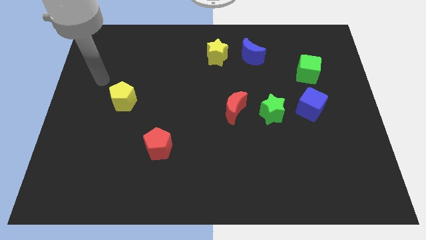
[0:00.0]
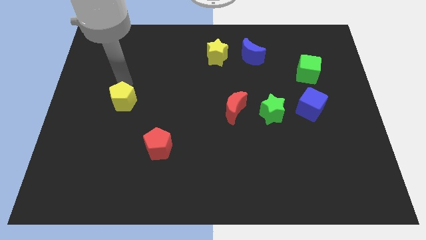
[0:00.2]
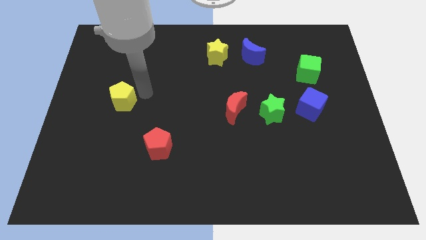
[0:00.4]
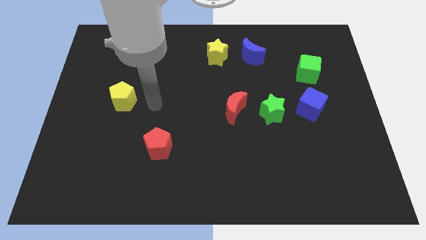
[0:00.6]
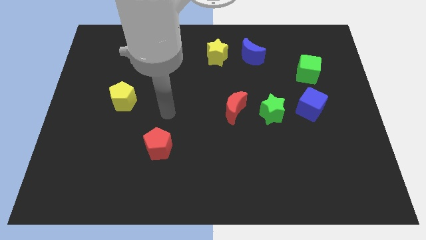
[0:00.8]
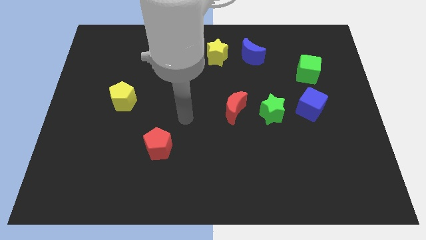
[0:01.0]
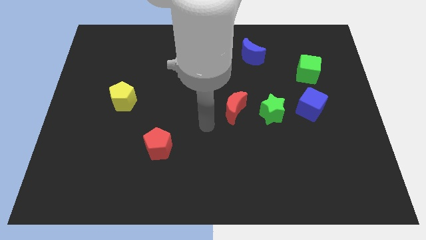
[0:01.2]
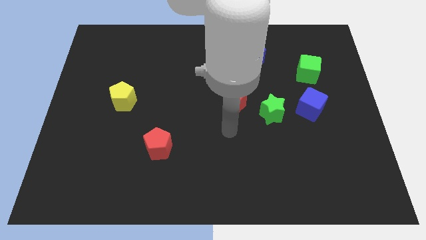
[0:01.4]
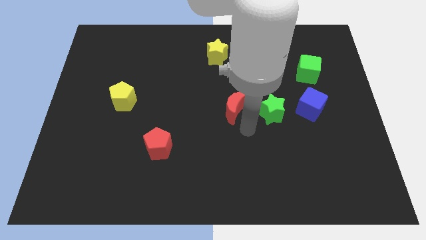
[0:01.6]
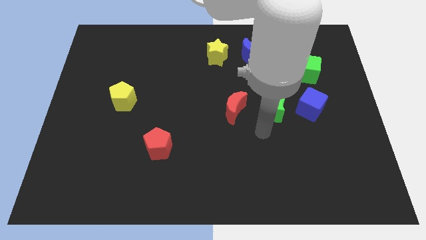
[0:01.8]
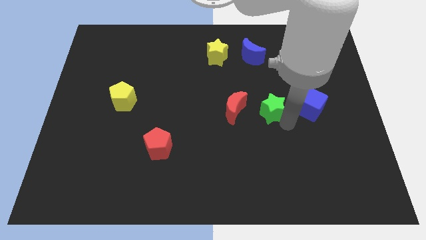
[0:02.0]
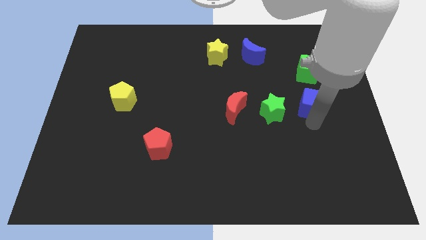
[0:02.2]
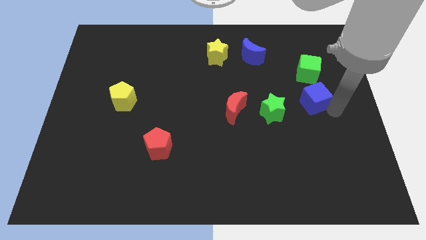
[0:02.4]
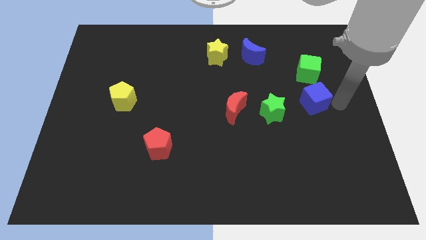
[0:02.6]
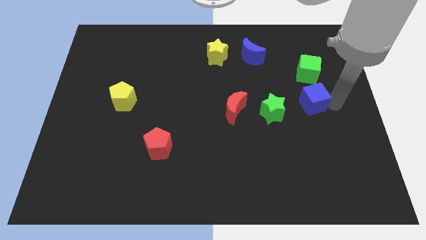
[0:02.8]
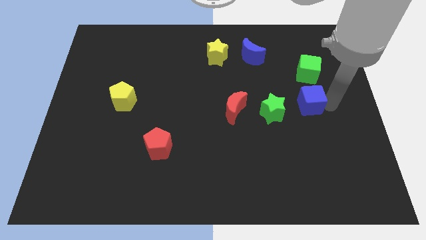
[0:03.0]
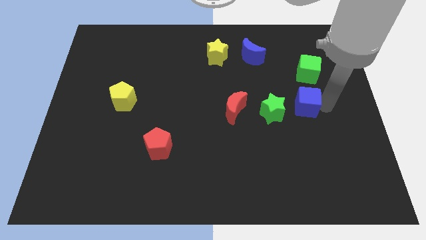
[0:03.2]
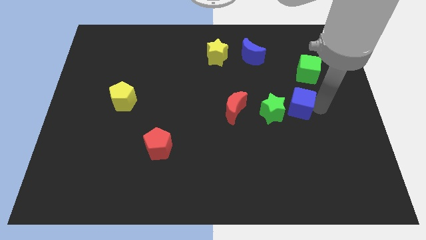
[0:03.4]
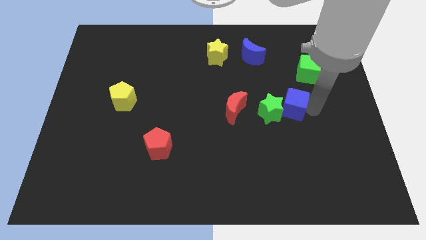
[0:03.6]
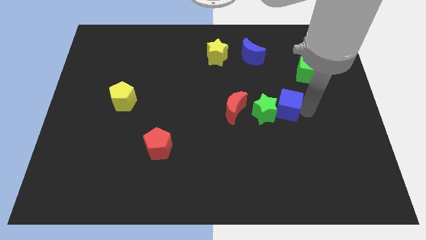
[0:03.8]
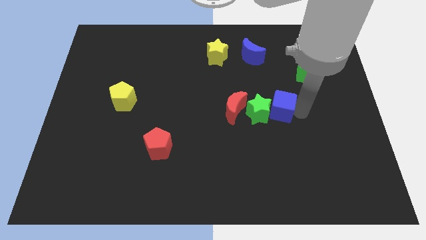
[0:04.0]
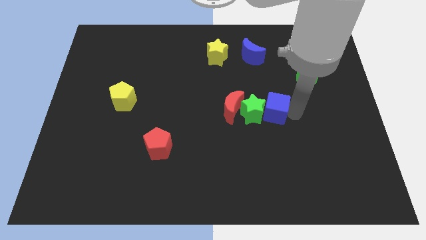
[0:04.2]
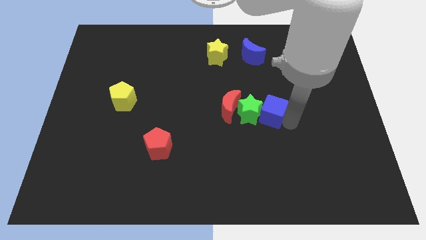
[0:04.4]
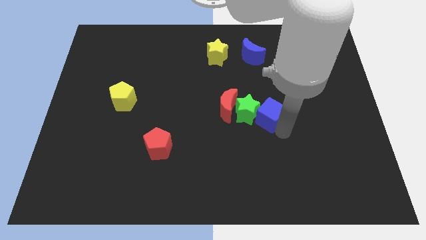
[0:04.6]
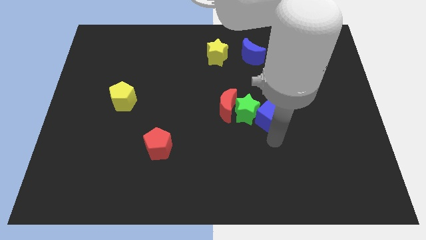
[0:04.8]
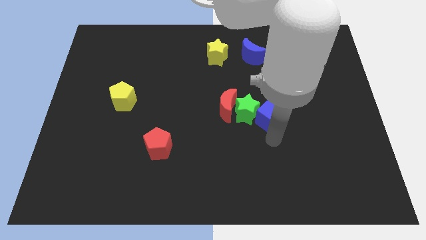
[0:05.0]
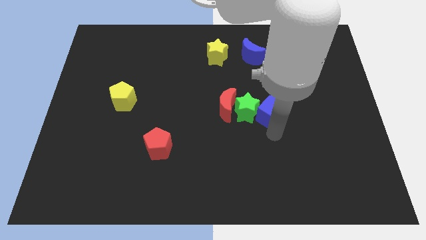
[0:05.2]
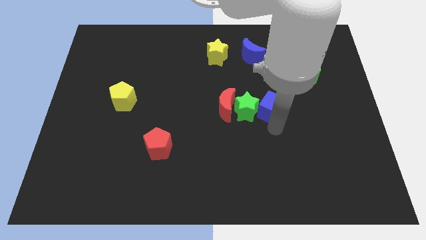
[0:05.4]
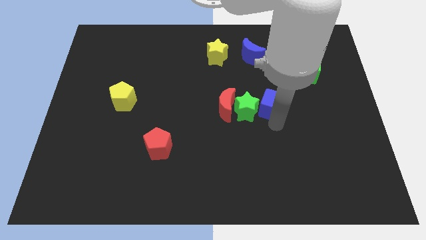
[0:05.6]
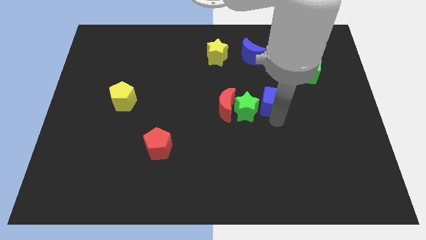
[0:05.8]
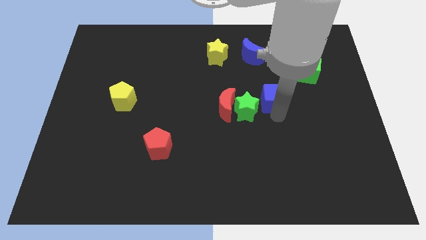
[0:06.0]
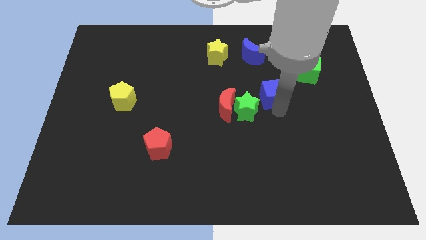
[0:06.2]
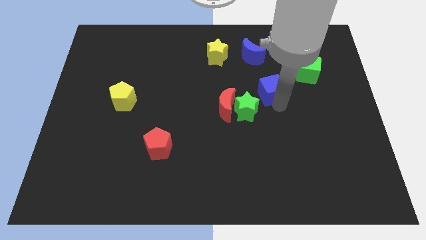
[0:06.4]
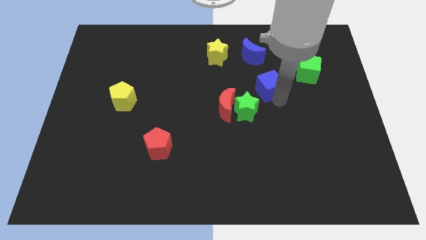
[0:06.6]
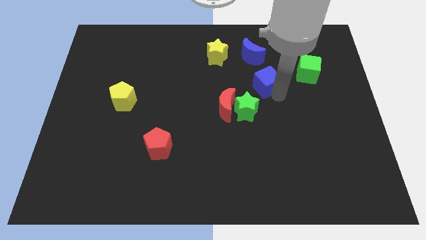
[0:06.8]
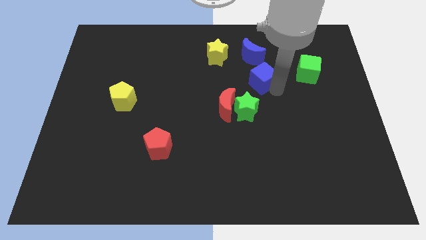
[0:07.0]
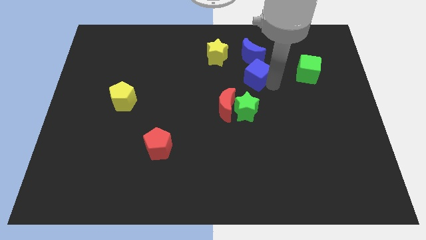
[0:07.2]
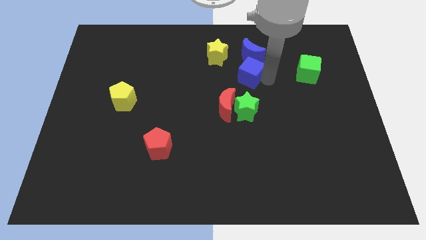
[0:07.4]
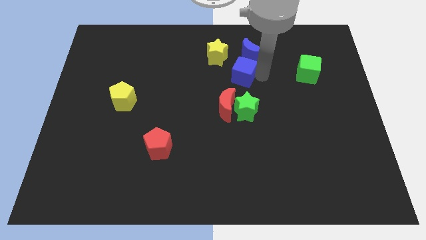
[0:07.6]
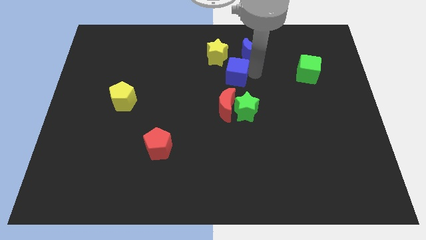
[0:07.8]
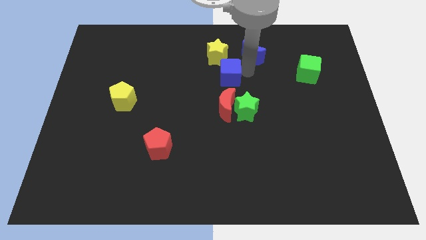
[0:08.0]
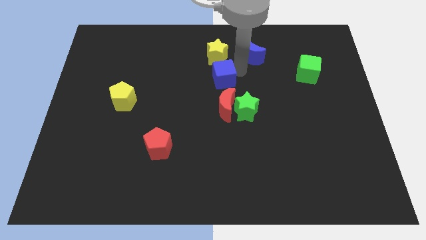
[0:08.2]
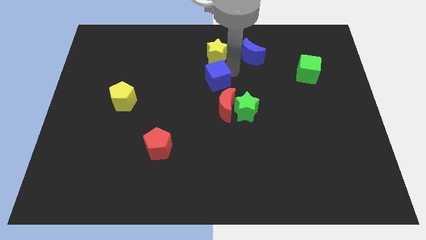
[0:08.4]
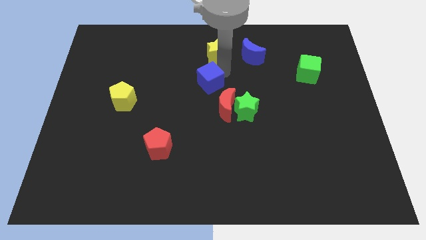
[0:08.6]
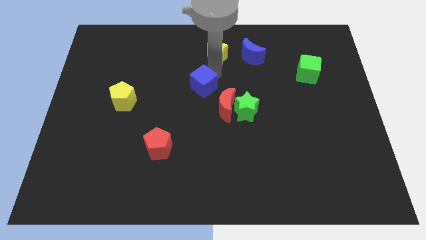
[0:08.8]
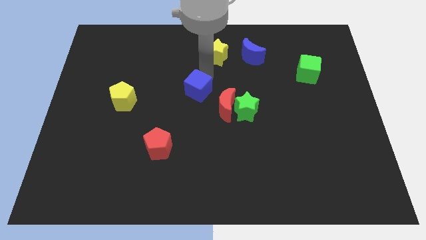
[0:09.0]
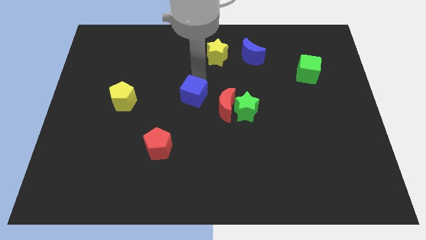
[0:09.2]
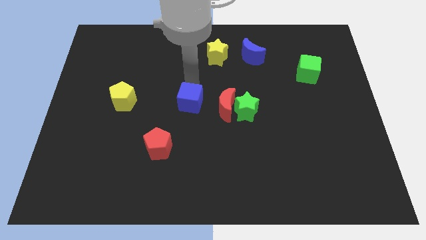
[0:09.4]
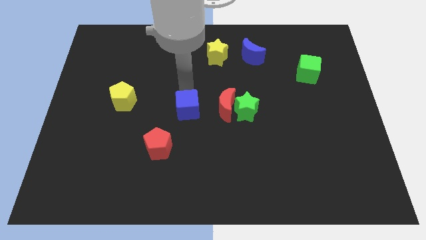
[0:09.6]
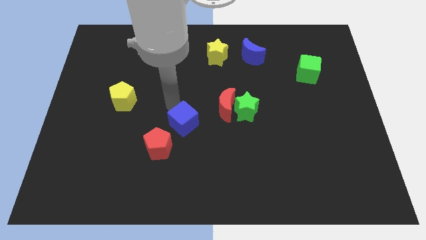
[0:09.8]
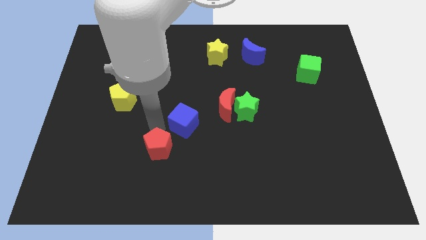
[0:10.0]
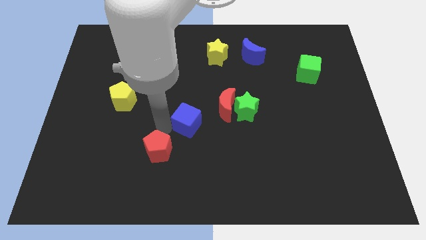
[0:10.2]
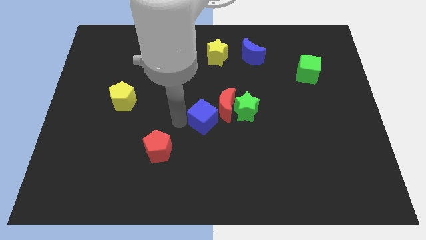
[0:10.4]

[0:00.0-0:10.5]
move the blue cube next to the red moon

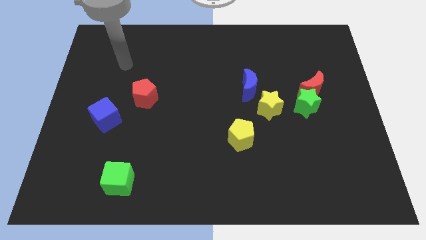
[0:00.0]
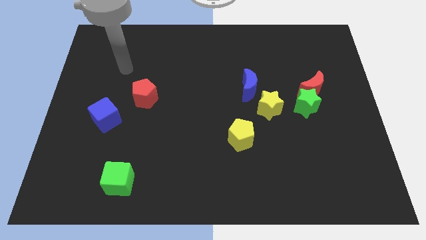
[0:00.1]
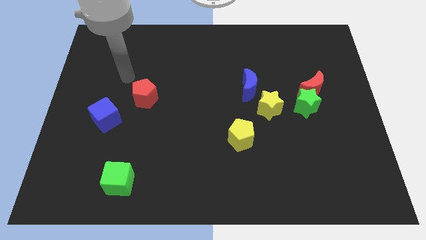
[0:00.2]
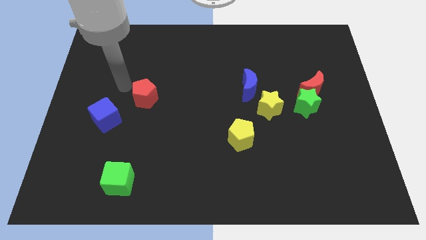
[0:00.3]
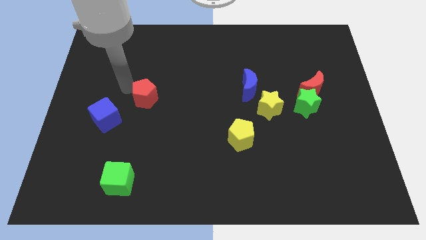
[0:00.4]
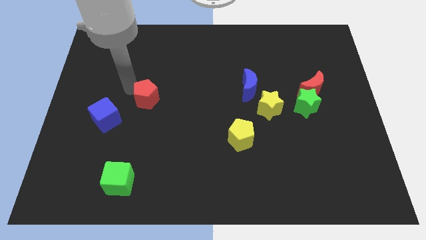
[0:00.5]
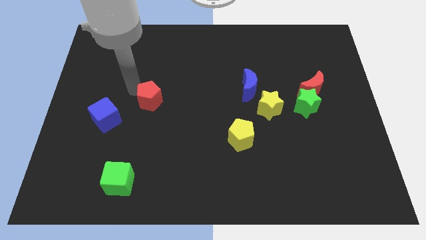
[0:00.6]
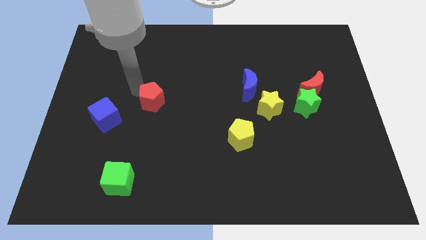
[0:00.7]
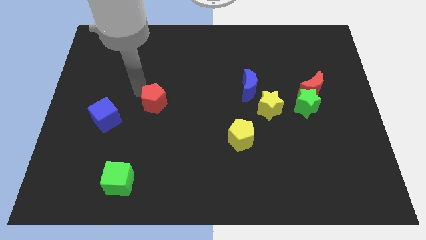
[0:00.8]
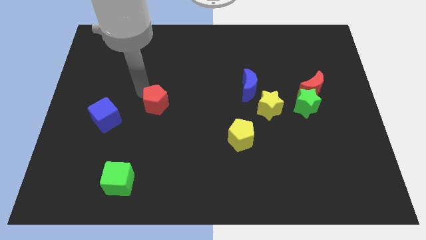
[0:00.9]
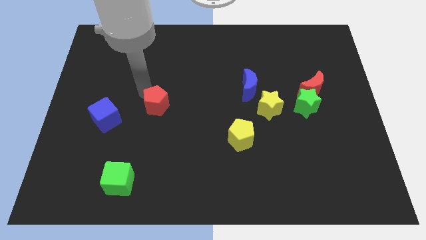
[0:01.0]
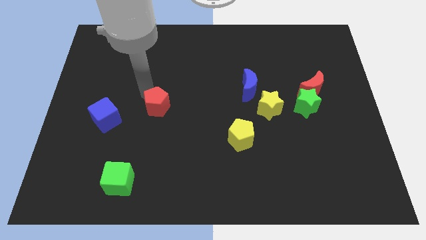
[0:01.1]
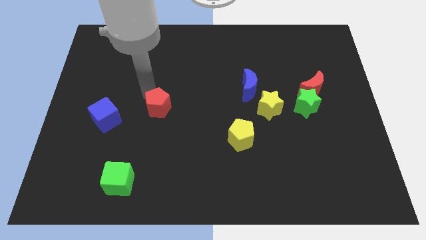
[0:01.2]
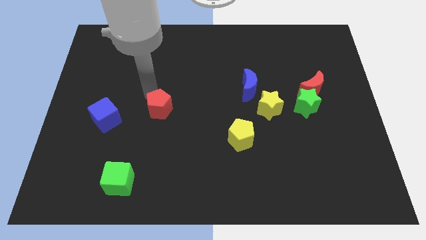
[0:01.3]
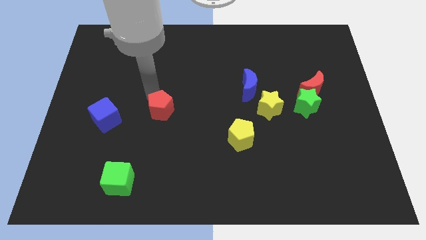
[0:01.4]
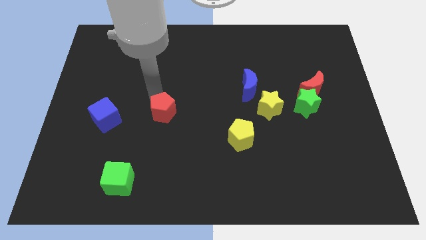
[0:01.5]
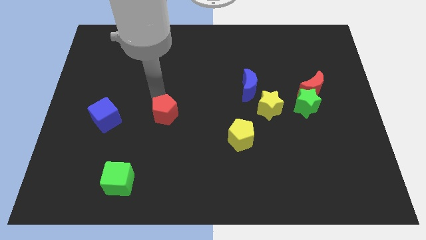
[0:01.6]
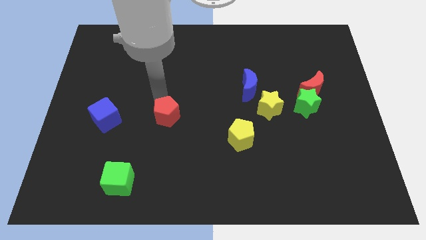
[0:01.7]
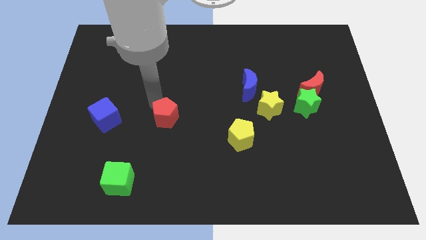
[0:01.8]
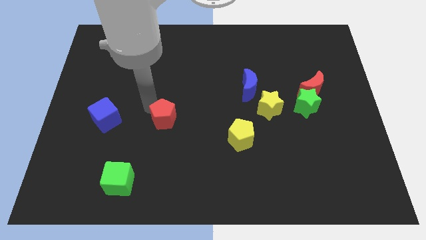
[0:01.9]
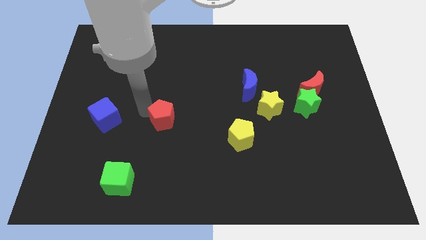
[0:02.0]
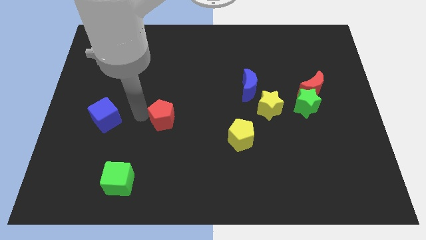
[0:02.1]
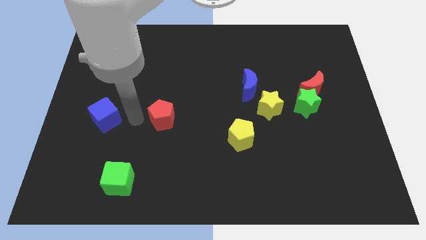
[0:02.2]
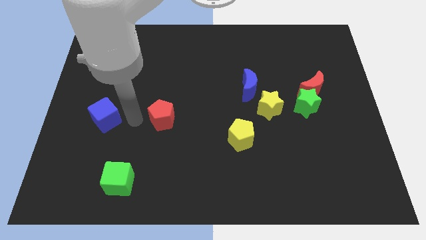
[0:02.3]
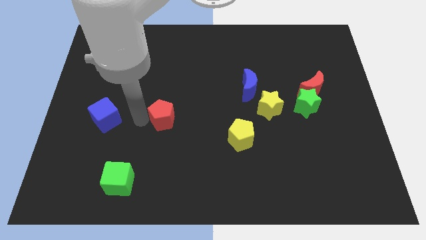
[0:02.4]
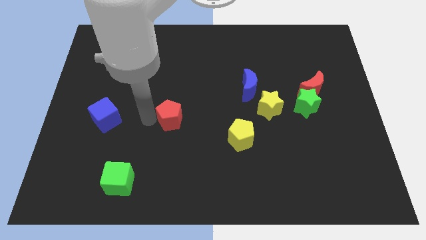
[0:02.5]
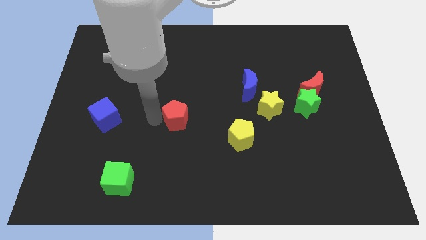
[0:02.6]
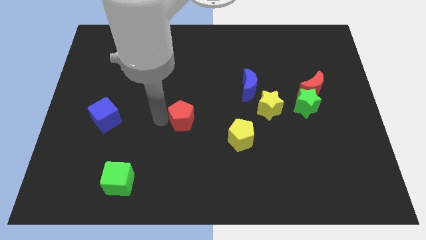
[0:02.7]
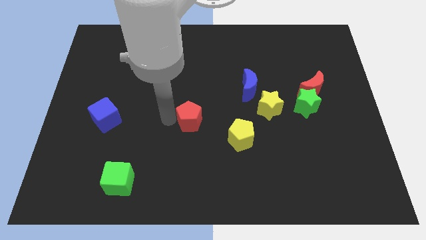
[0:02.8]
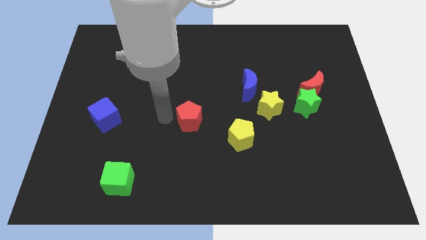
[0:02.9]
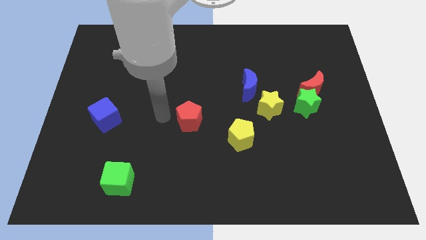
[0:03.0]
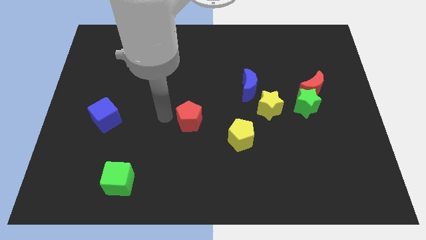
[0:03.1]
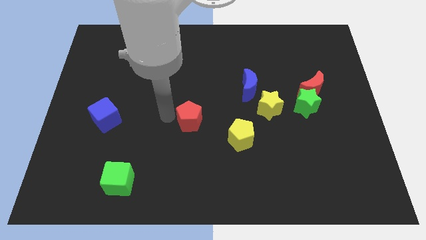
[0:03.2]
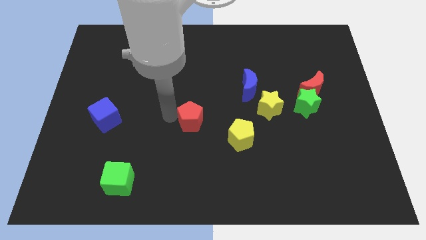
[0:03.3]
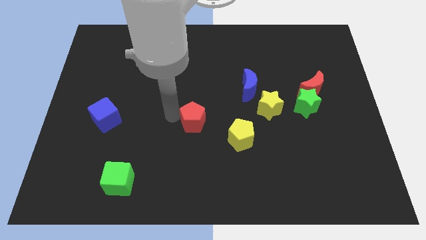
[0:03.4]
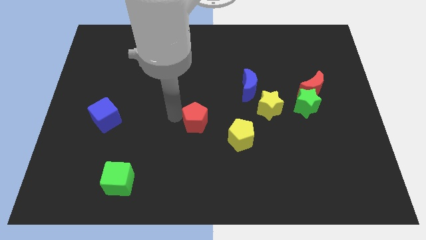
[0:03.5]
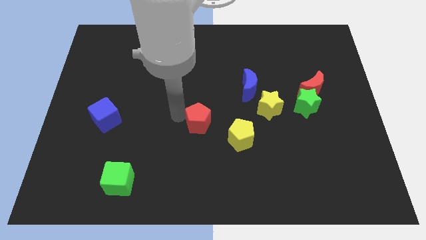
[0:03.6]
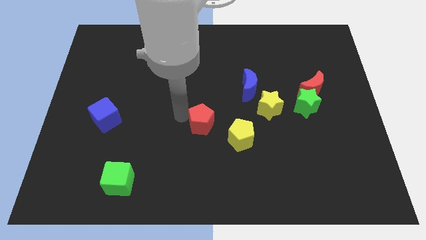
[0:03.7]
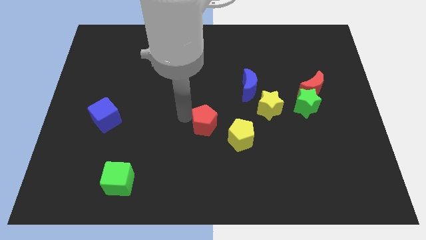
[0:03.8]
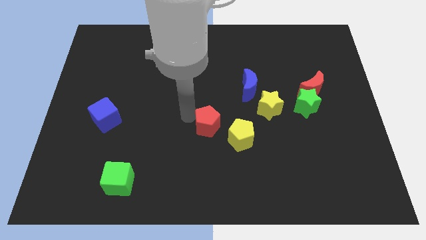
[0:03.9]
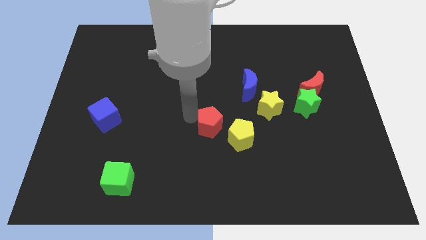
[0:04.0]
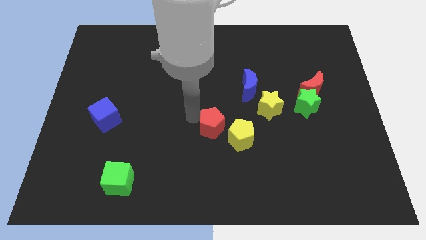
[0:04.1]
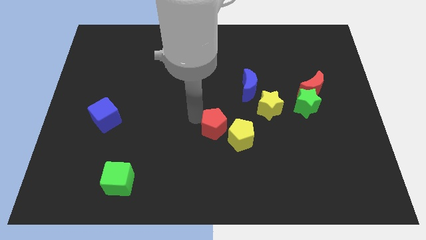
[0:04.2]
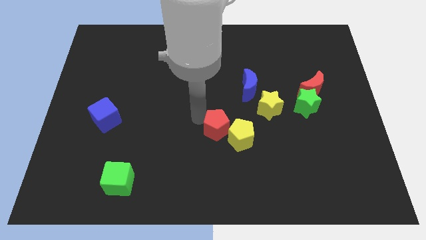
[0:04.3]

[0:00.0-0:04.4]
put the red pentagon towards the yellow pentagon
